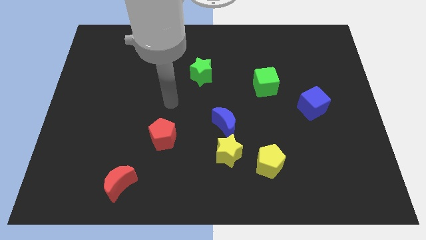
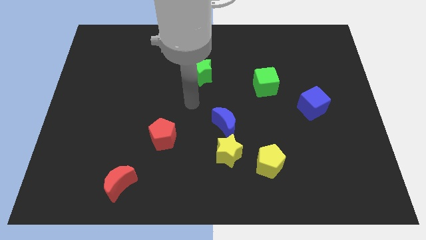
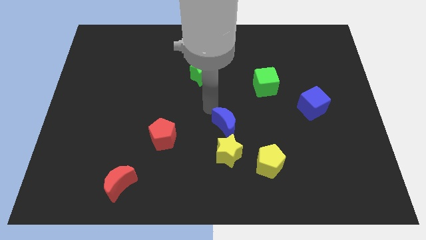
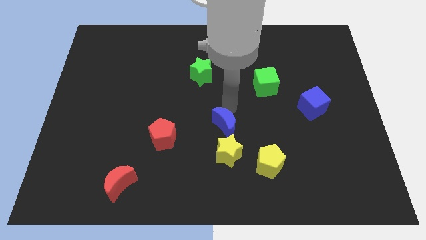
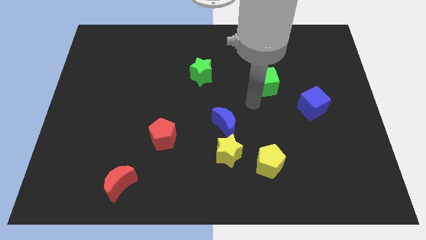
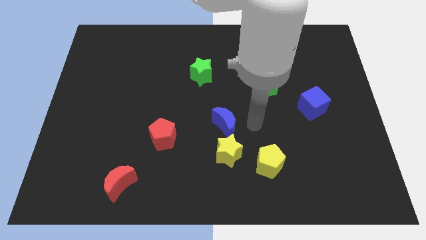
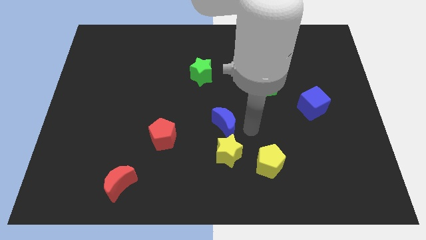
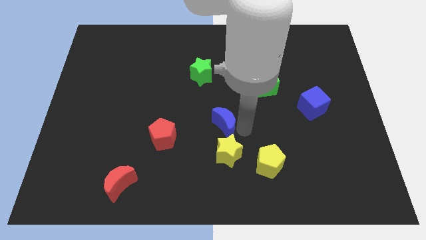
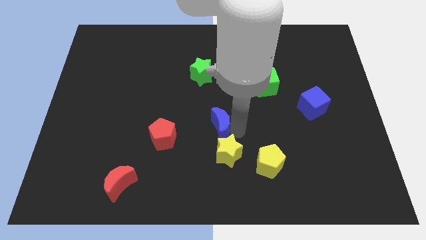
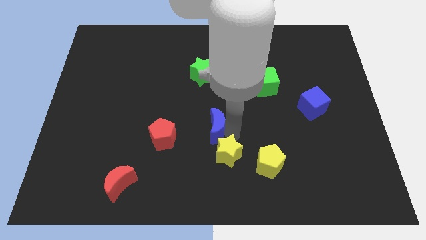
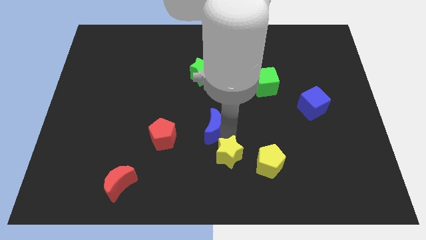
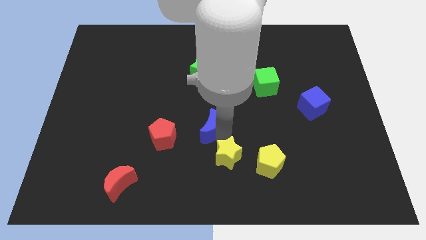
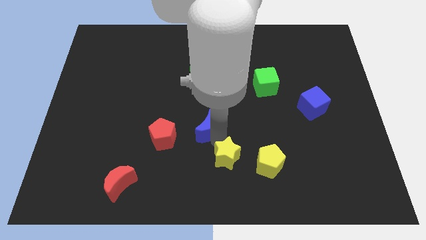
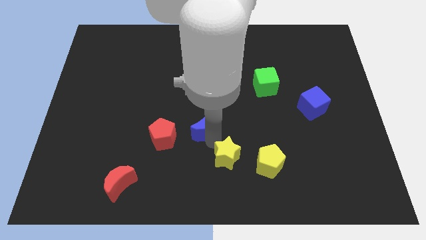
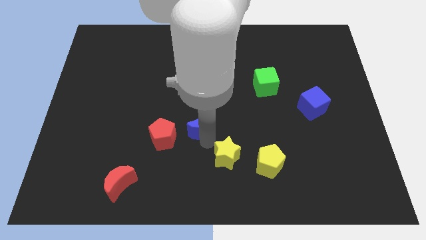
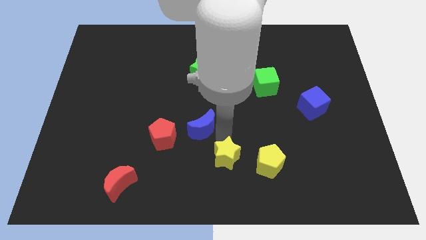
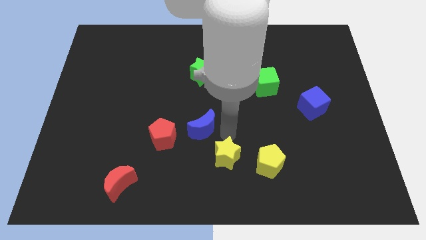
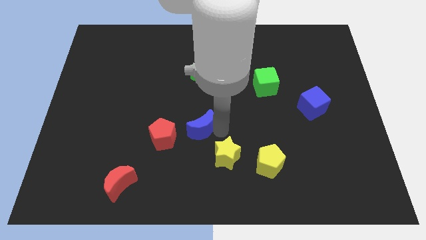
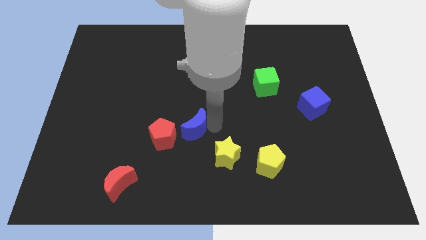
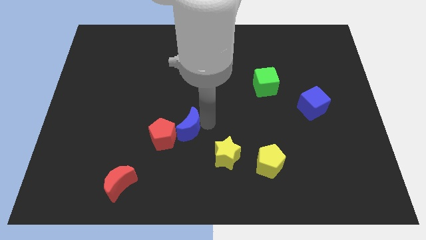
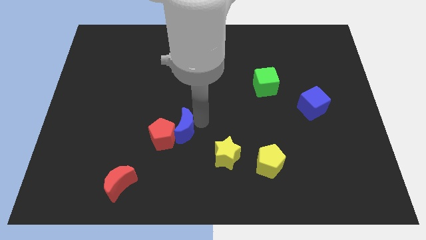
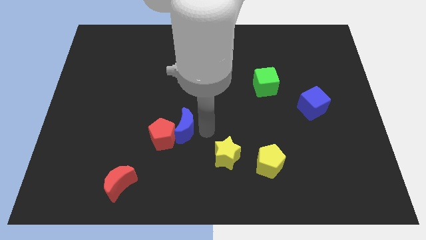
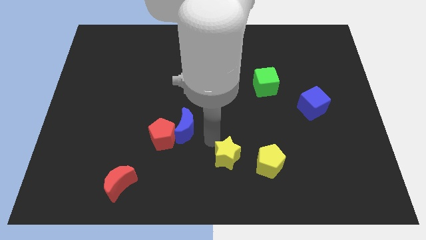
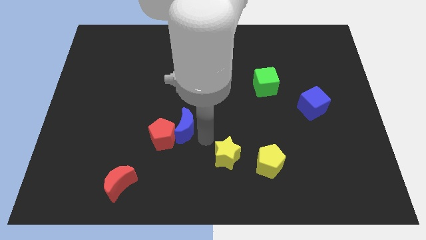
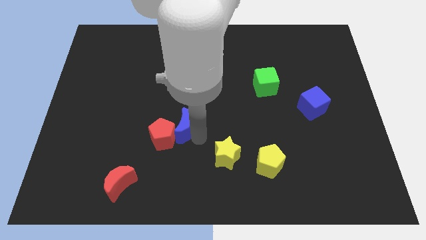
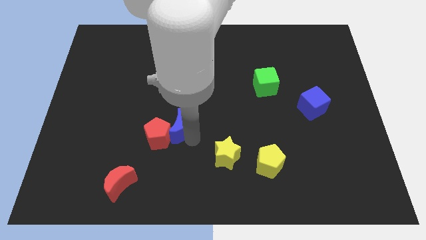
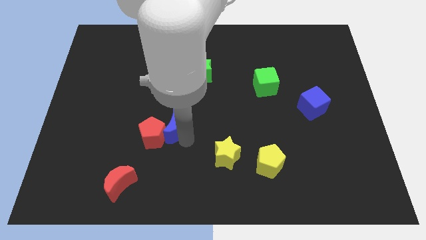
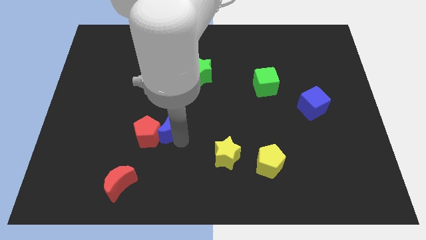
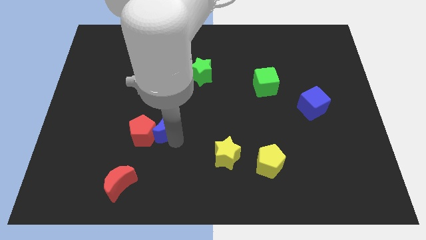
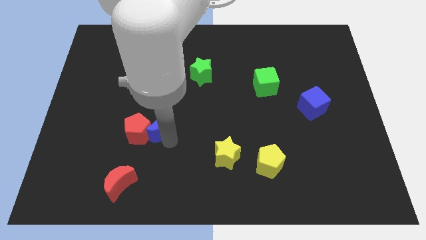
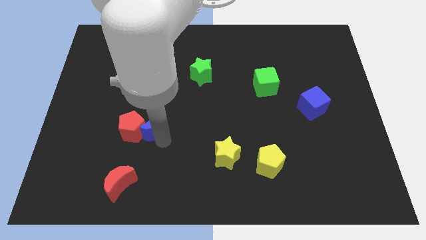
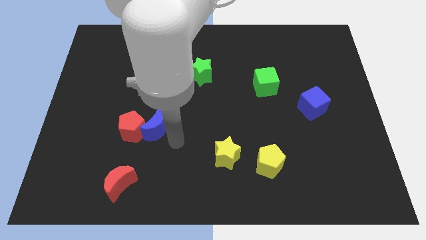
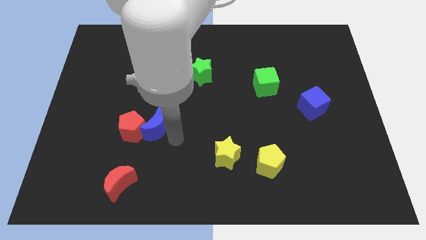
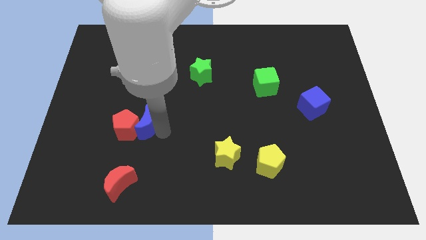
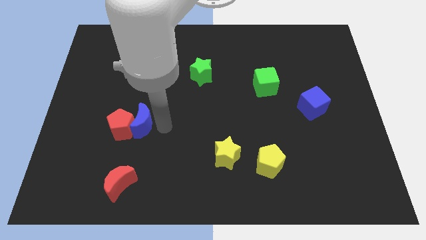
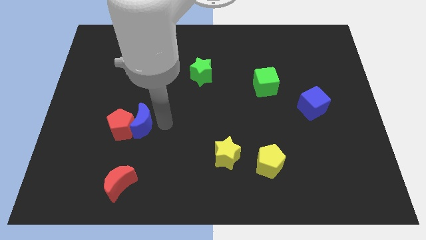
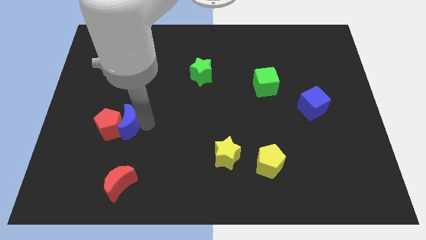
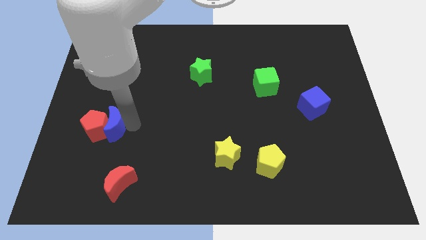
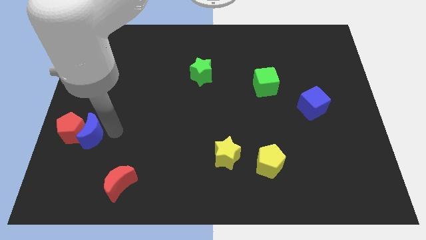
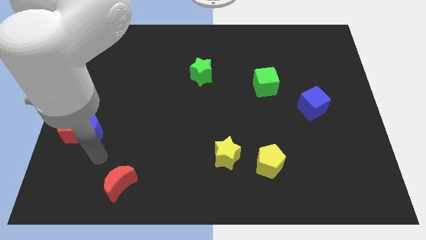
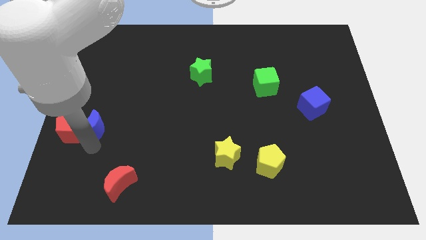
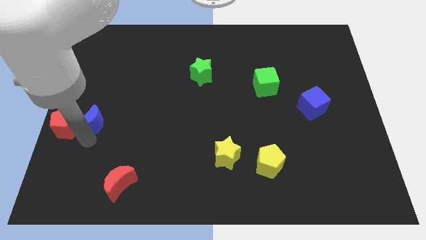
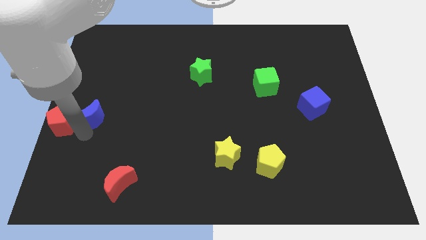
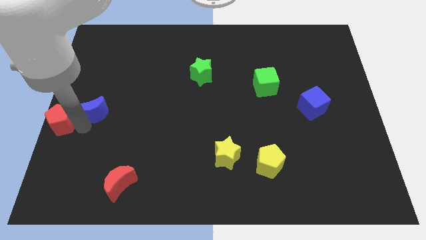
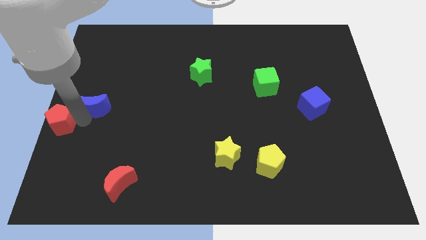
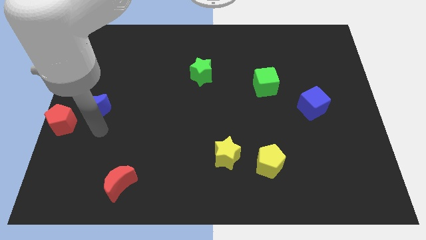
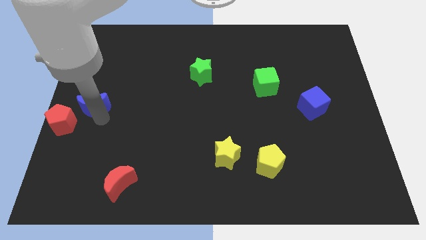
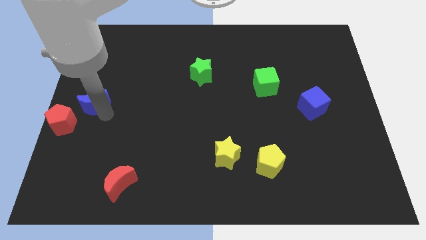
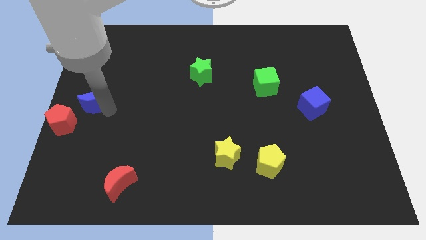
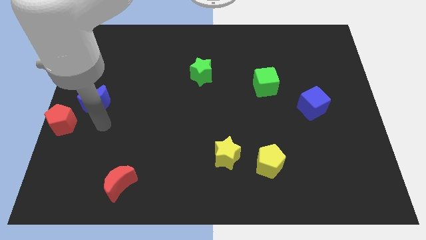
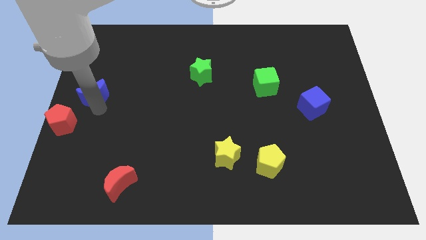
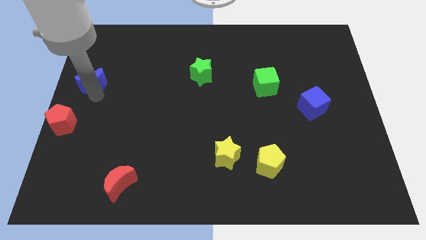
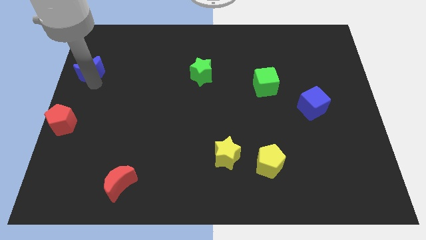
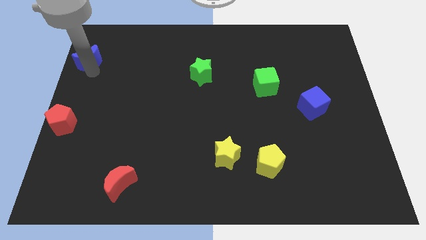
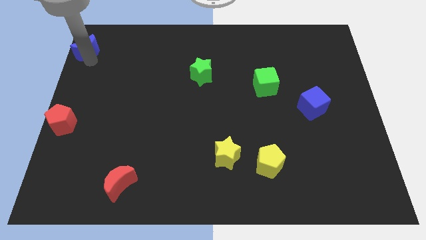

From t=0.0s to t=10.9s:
slide the blue moon to the top left

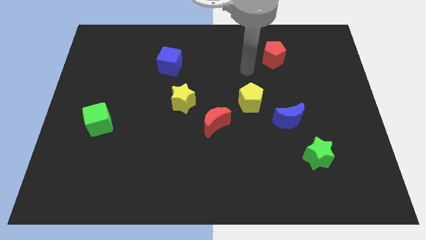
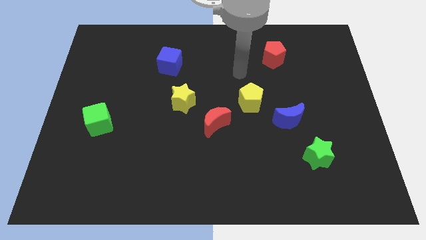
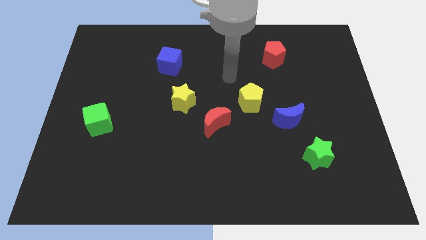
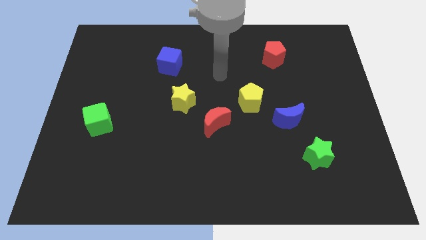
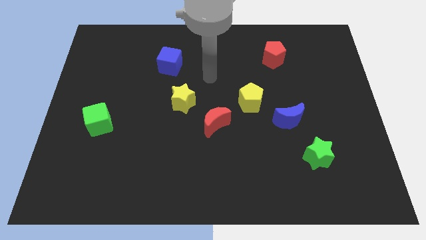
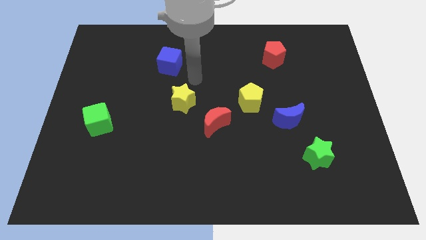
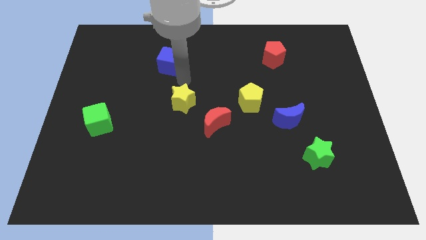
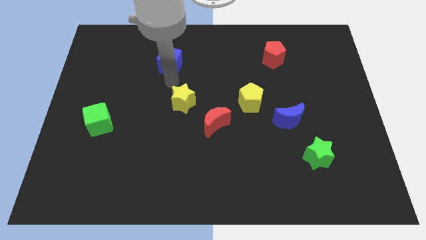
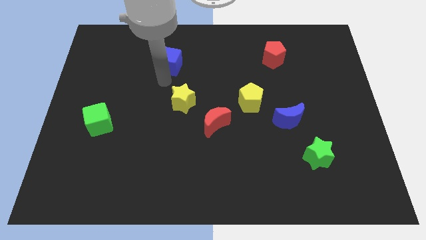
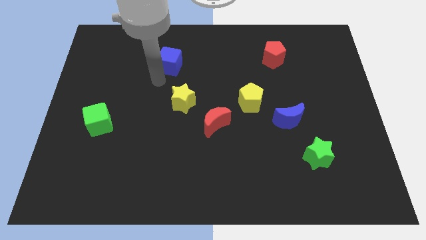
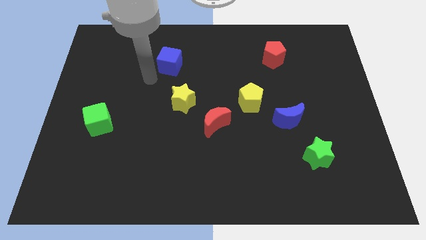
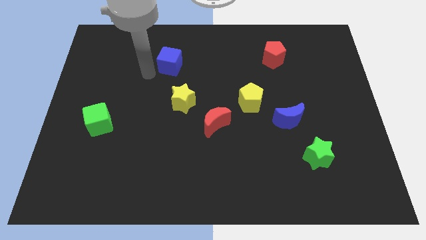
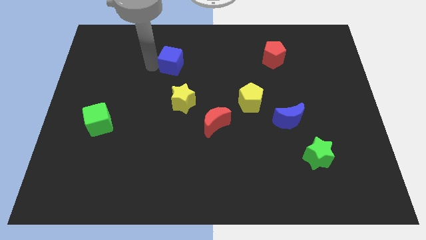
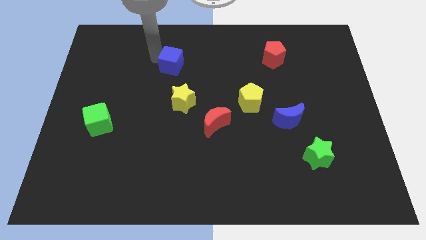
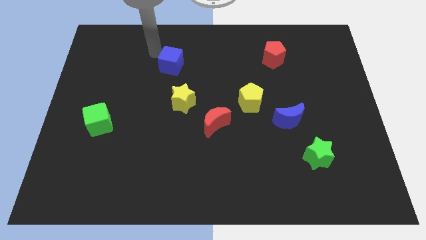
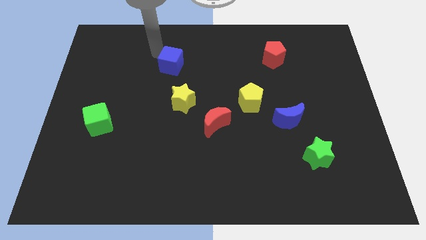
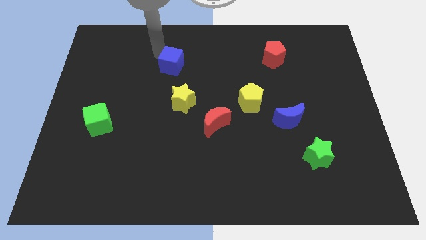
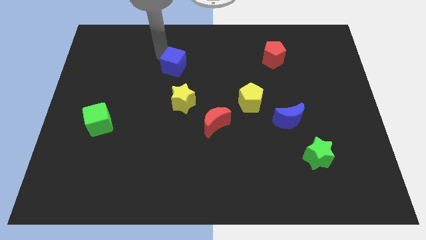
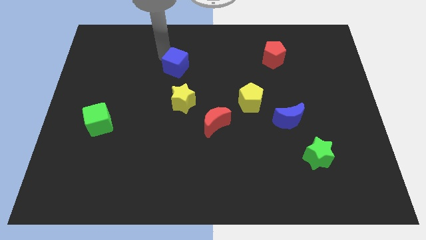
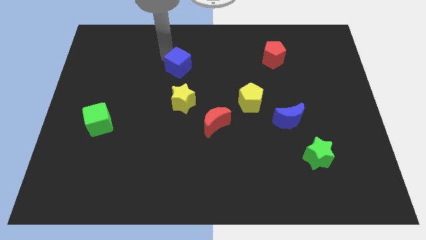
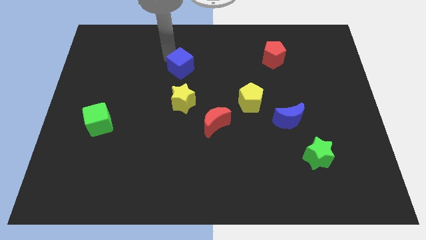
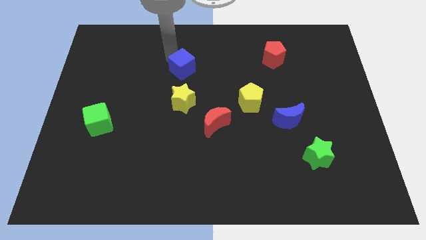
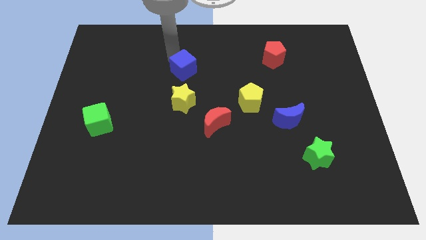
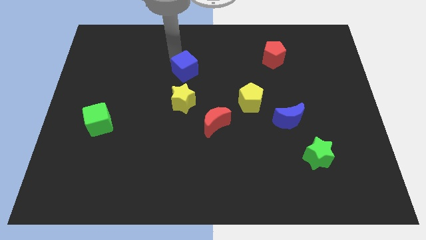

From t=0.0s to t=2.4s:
move the blue cube to the center of the board
